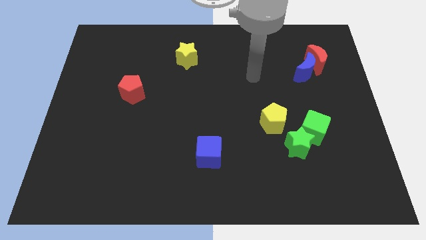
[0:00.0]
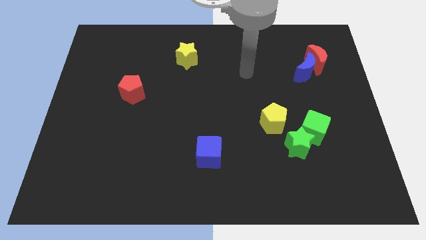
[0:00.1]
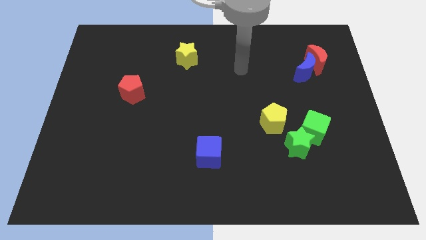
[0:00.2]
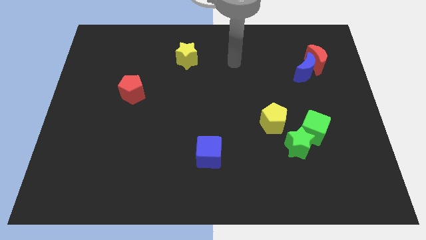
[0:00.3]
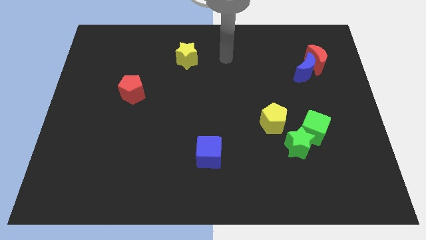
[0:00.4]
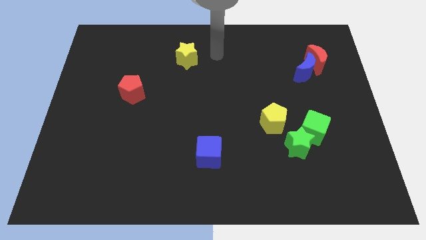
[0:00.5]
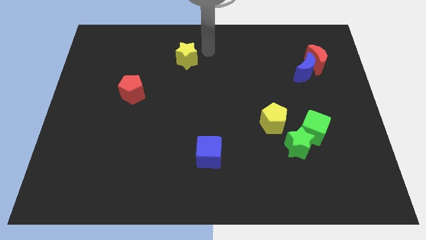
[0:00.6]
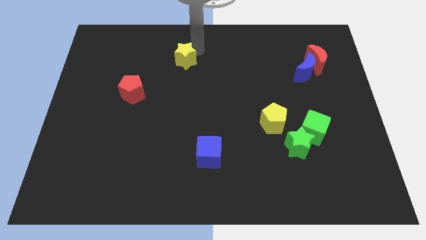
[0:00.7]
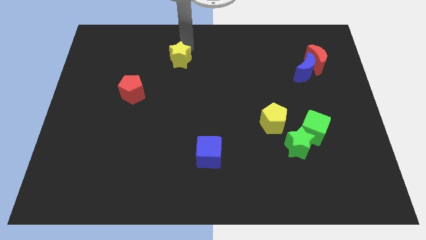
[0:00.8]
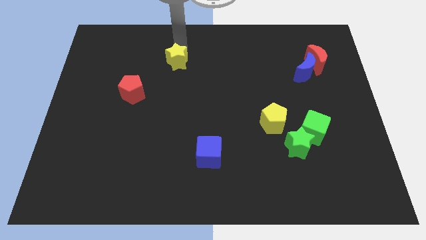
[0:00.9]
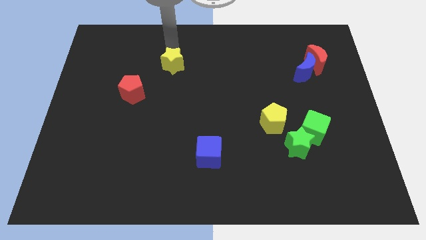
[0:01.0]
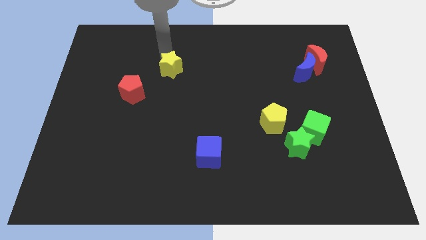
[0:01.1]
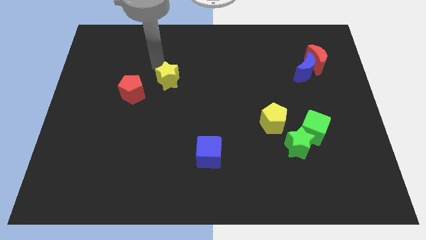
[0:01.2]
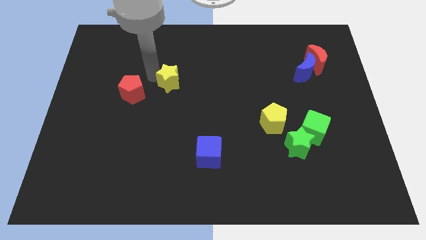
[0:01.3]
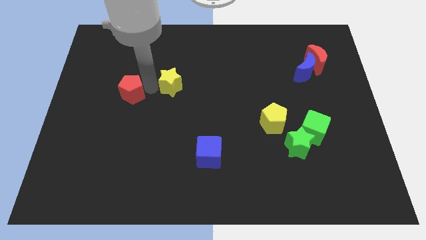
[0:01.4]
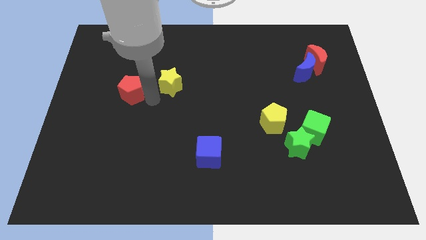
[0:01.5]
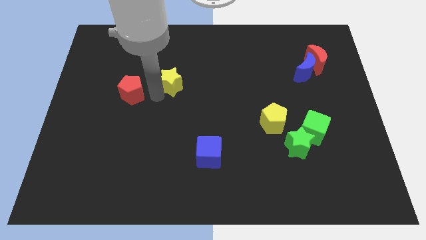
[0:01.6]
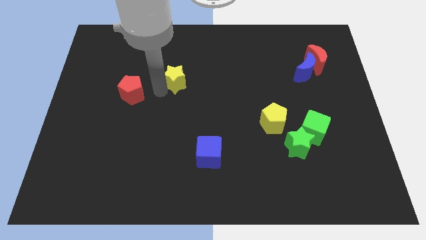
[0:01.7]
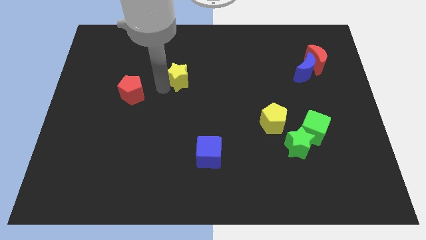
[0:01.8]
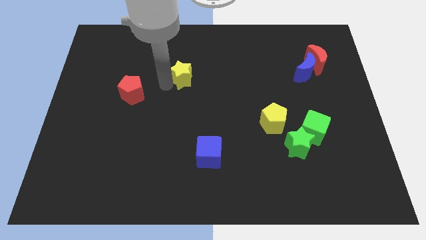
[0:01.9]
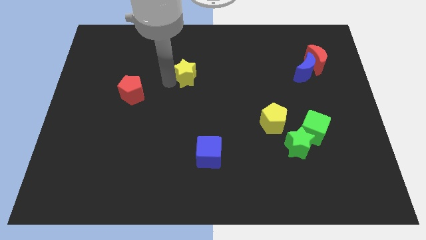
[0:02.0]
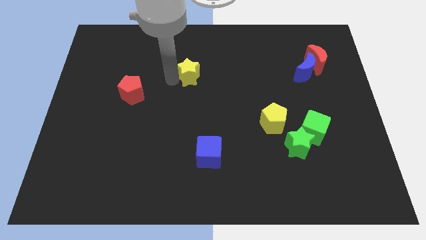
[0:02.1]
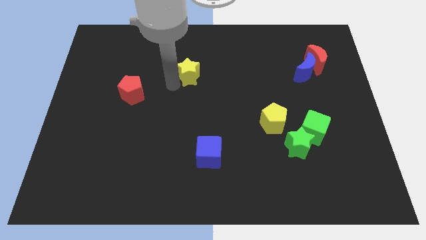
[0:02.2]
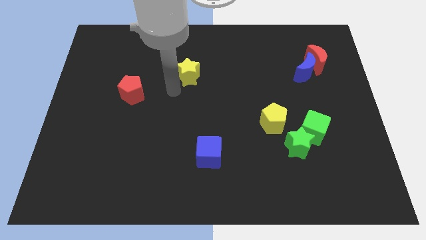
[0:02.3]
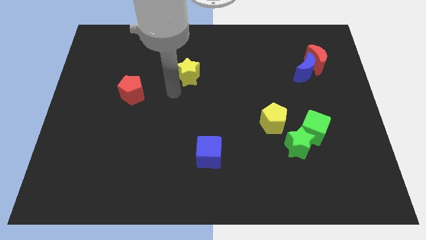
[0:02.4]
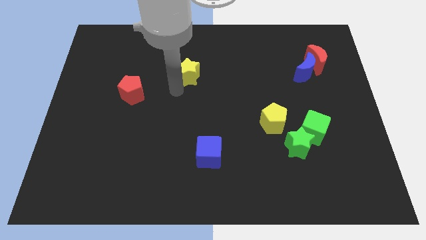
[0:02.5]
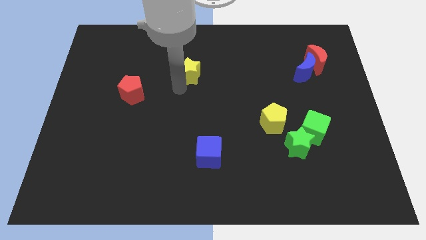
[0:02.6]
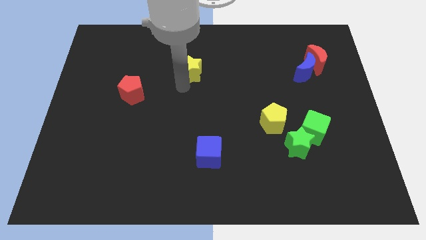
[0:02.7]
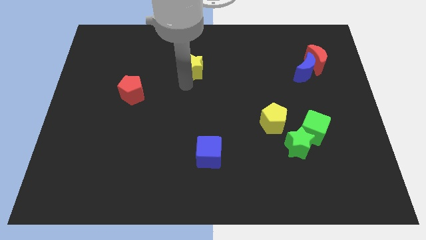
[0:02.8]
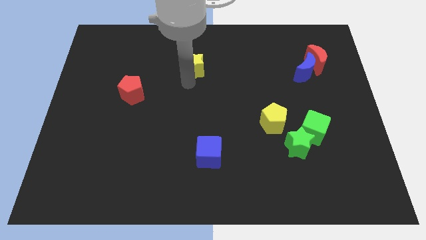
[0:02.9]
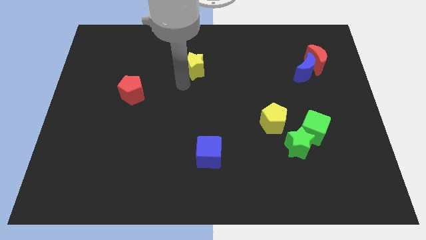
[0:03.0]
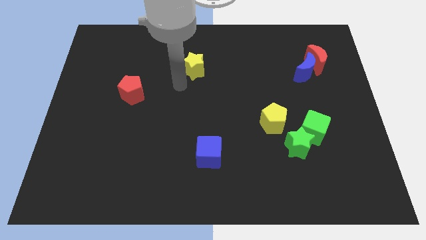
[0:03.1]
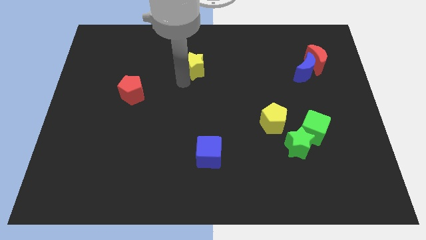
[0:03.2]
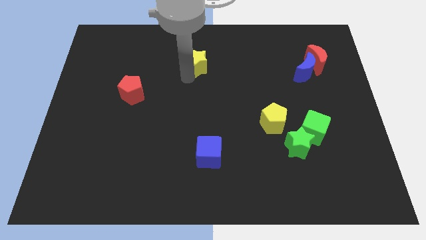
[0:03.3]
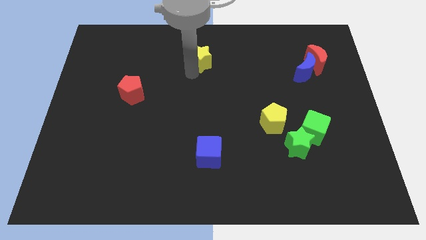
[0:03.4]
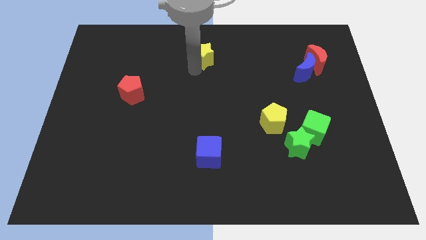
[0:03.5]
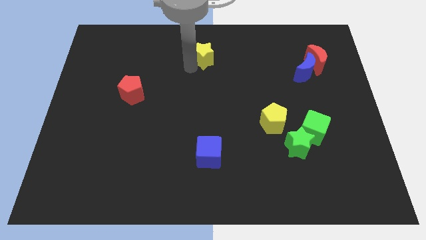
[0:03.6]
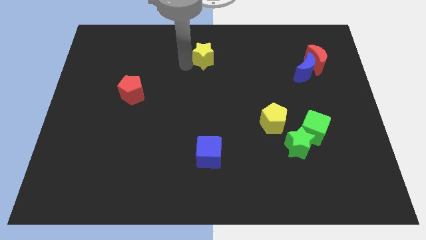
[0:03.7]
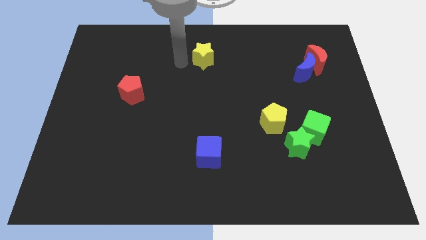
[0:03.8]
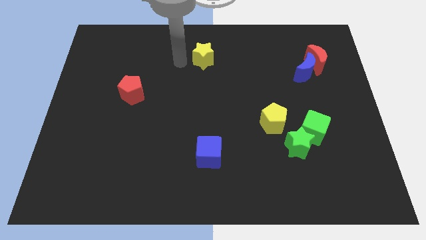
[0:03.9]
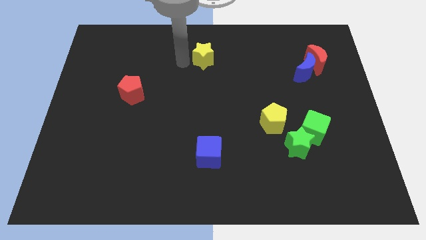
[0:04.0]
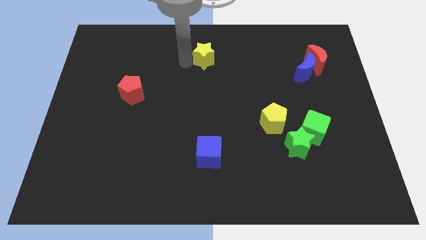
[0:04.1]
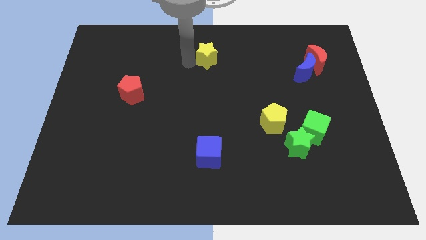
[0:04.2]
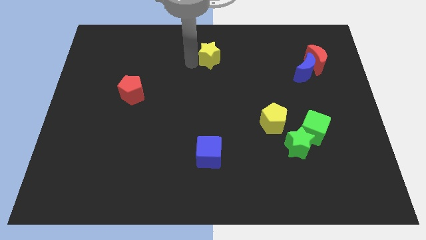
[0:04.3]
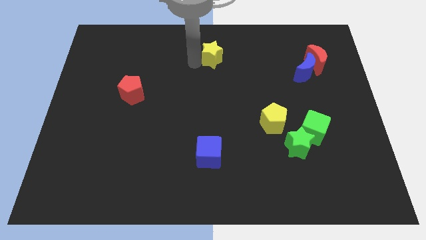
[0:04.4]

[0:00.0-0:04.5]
slightly push the yellow star to the right

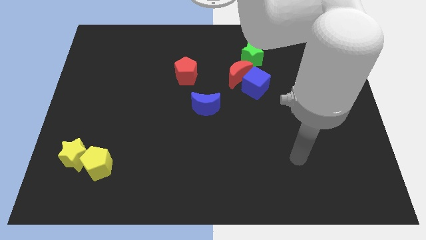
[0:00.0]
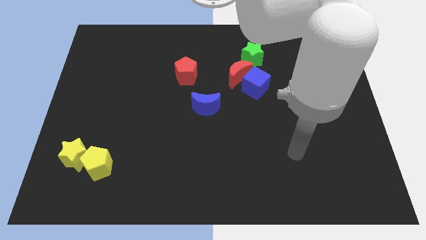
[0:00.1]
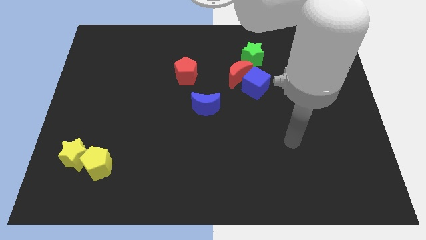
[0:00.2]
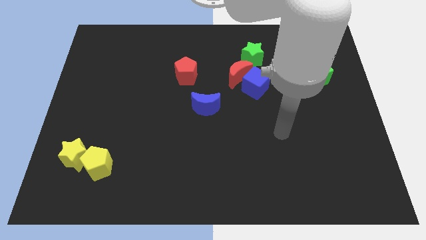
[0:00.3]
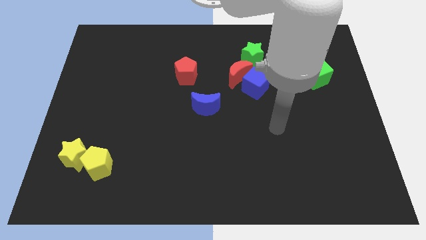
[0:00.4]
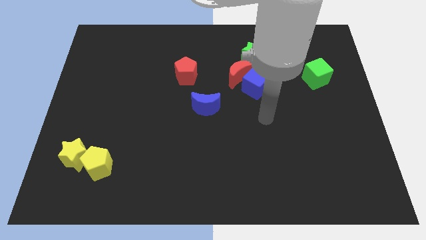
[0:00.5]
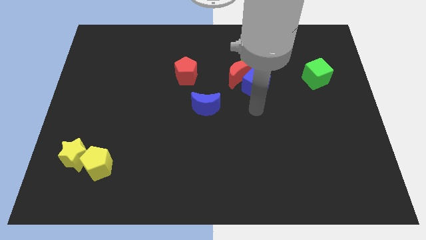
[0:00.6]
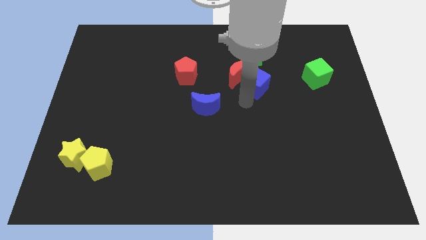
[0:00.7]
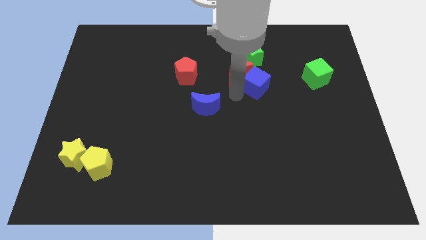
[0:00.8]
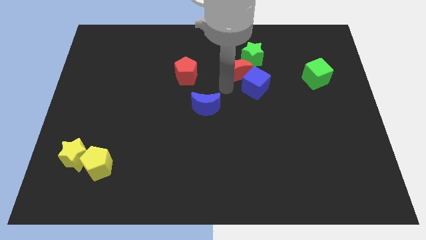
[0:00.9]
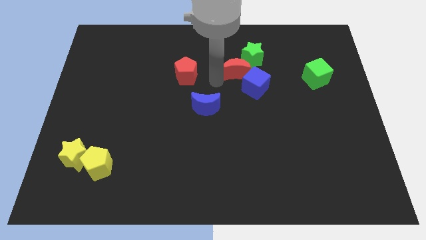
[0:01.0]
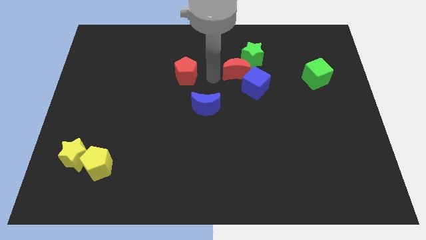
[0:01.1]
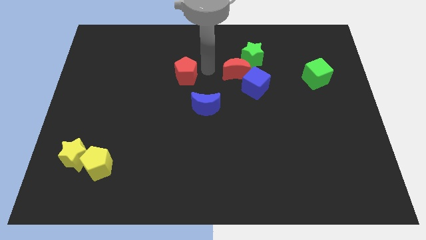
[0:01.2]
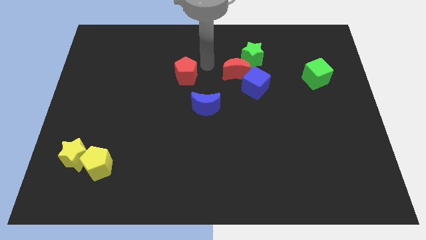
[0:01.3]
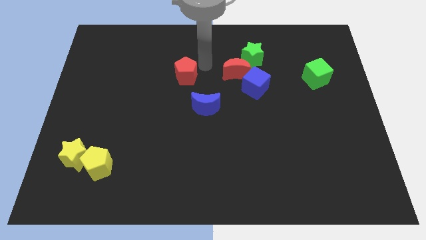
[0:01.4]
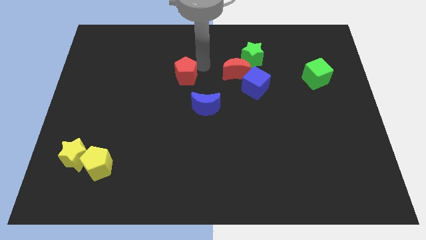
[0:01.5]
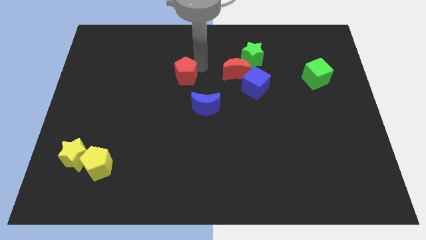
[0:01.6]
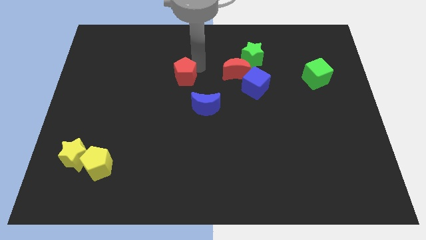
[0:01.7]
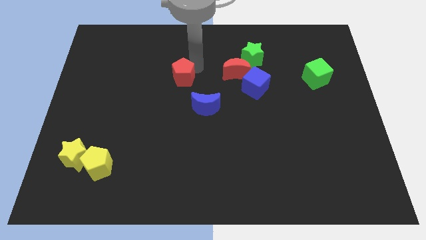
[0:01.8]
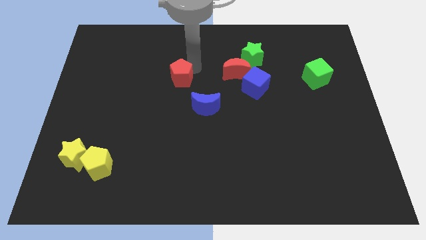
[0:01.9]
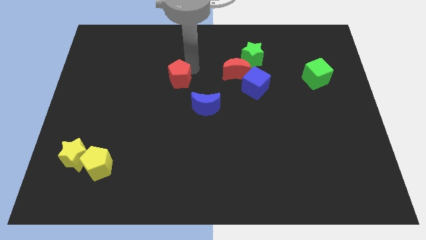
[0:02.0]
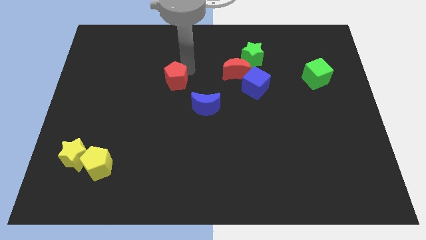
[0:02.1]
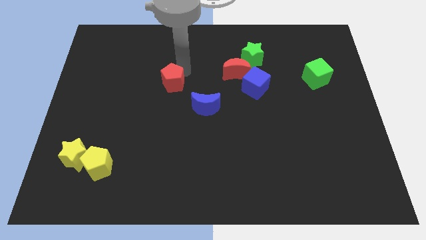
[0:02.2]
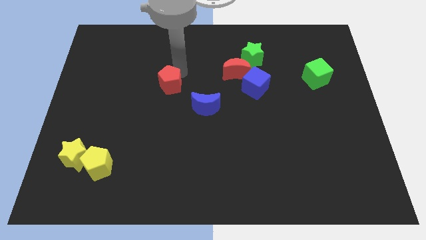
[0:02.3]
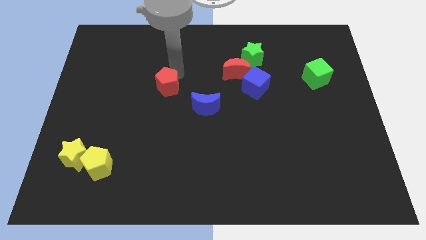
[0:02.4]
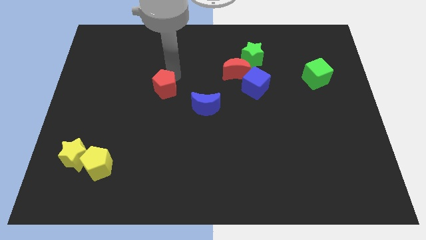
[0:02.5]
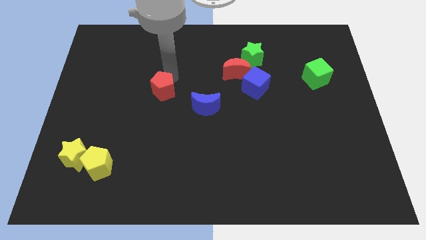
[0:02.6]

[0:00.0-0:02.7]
push the red pentagon diagonally downwards and to the left a little

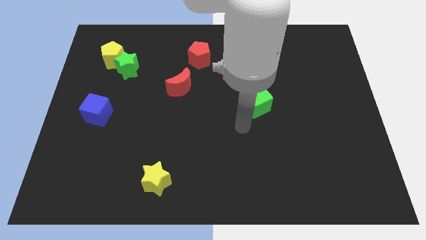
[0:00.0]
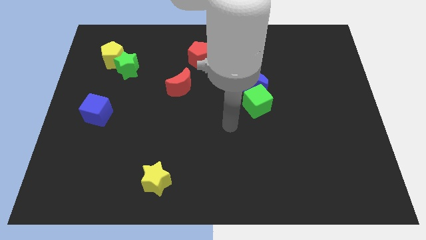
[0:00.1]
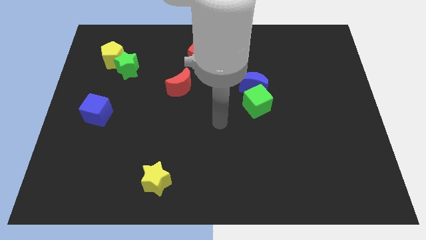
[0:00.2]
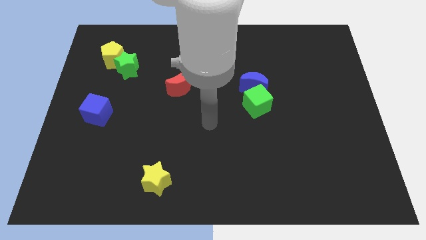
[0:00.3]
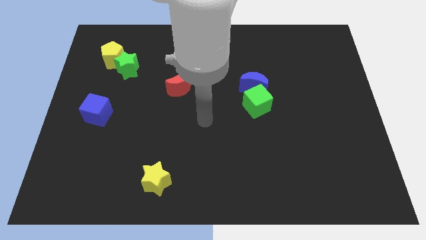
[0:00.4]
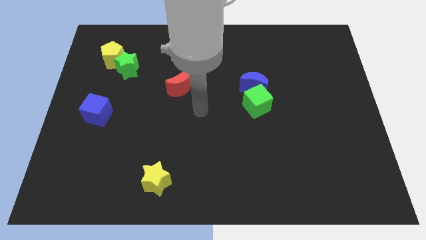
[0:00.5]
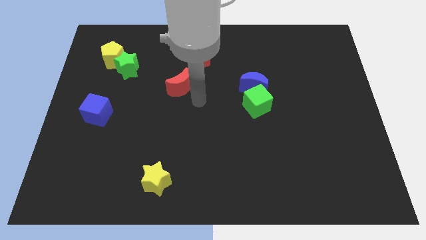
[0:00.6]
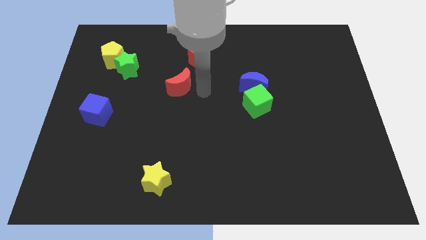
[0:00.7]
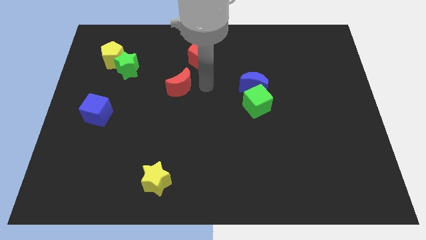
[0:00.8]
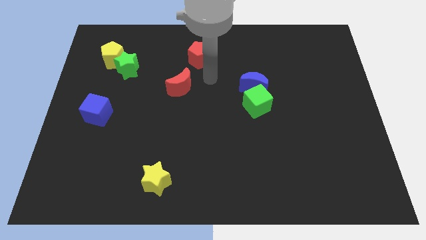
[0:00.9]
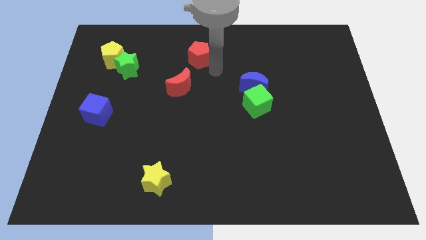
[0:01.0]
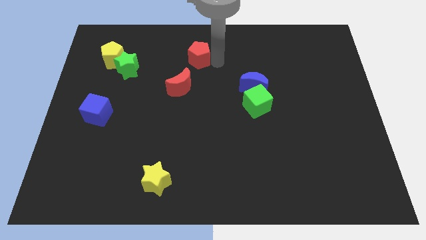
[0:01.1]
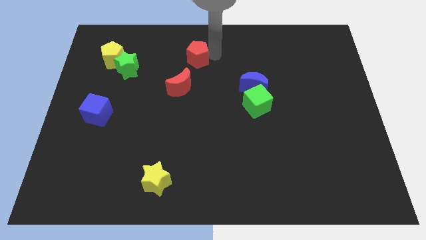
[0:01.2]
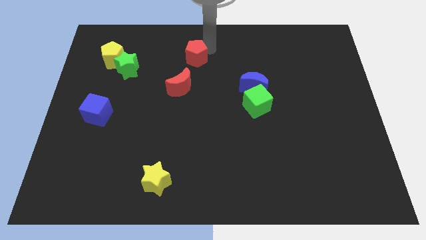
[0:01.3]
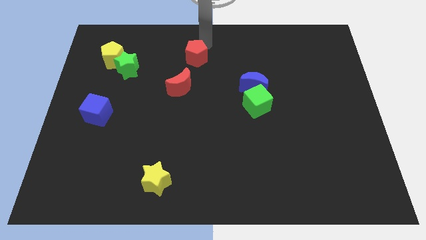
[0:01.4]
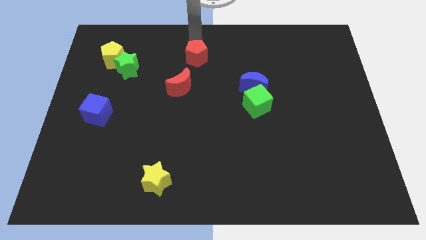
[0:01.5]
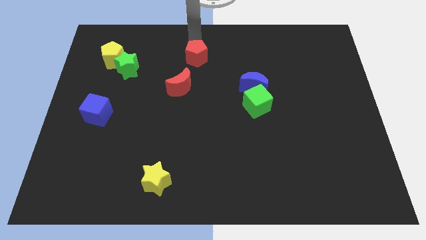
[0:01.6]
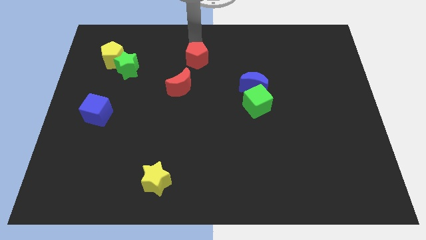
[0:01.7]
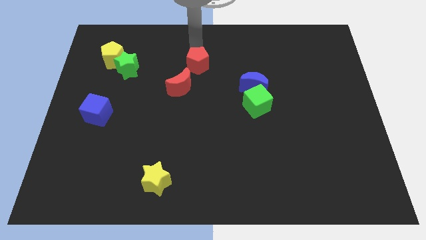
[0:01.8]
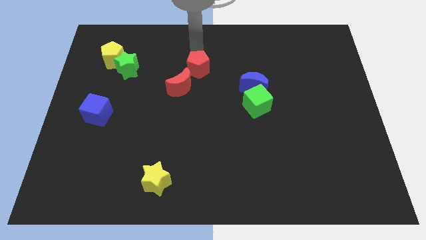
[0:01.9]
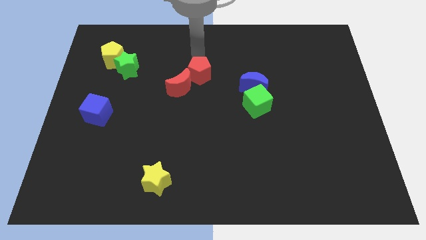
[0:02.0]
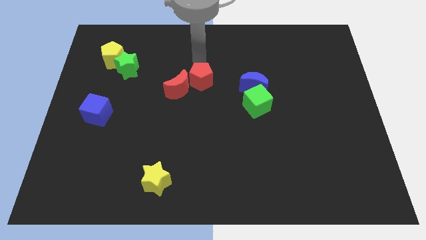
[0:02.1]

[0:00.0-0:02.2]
slightly move the red pentagon down
